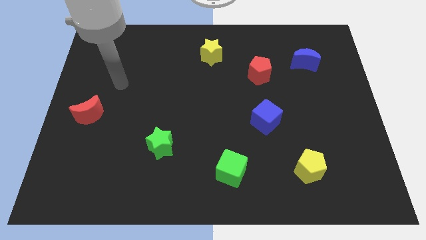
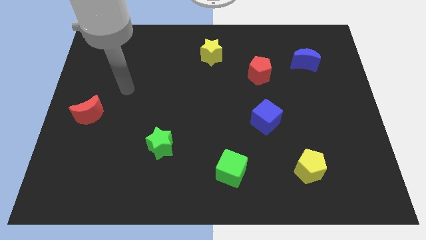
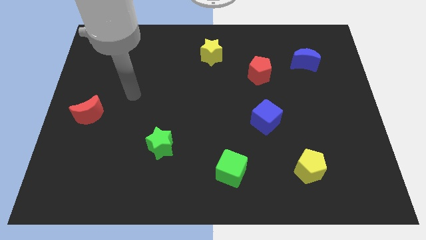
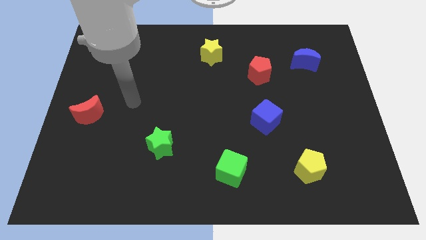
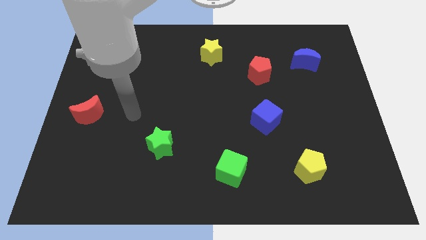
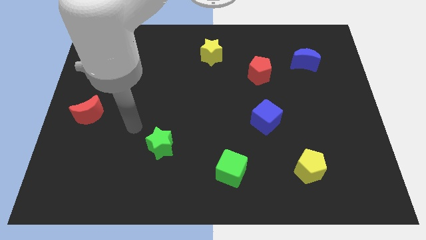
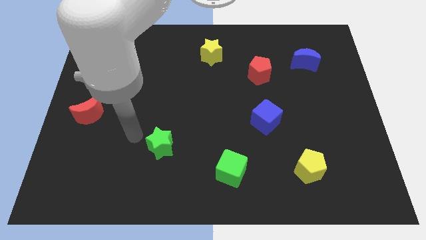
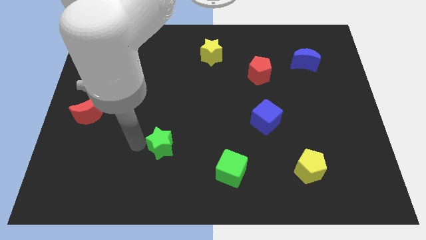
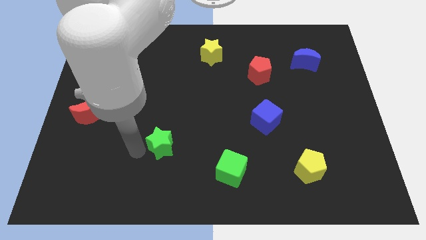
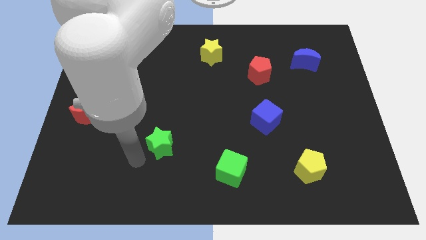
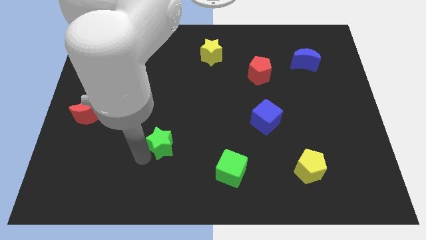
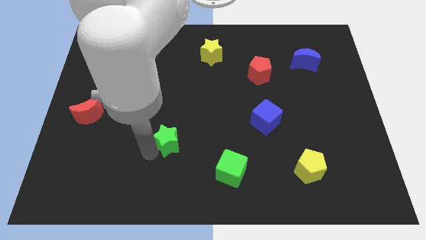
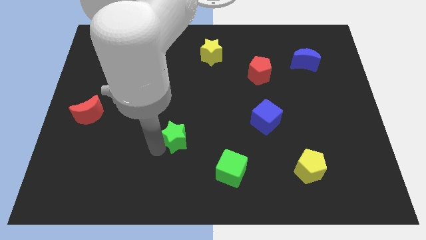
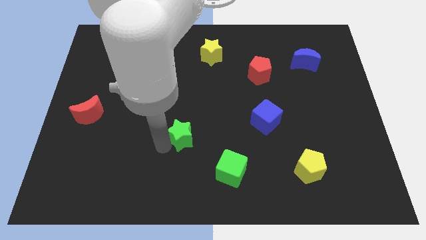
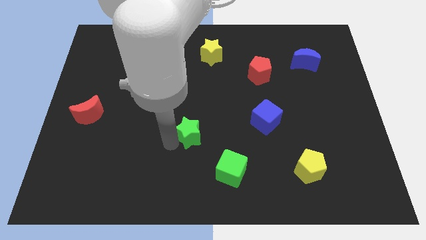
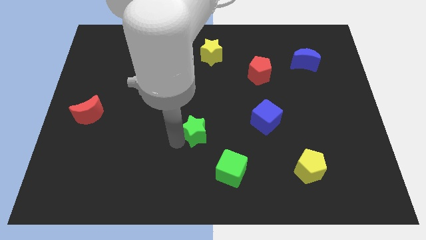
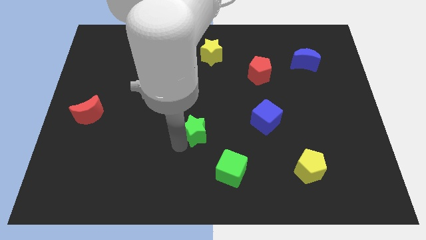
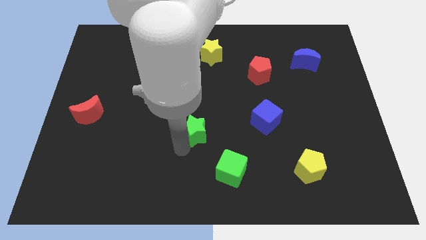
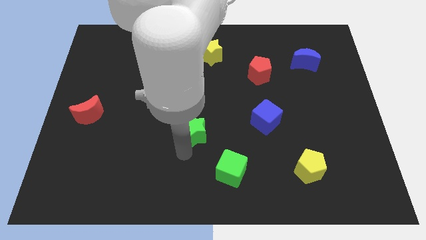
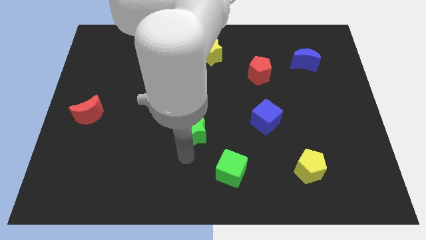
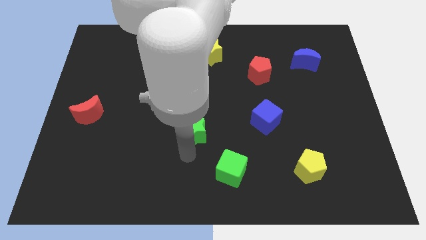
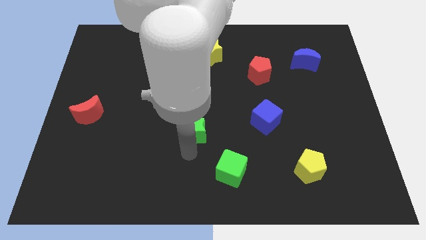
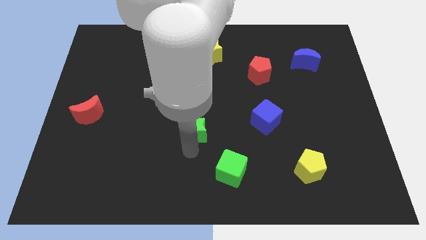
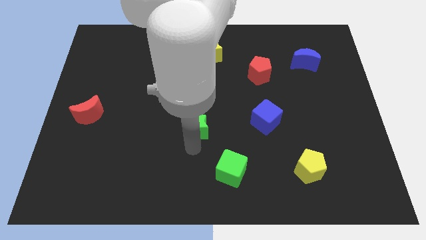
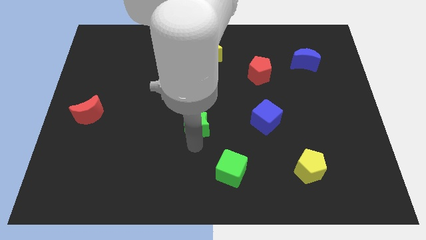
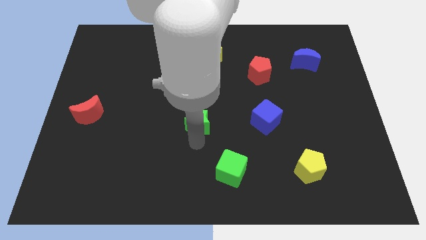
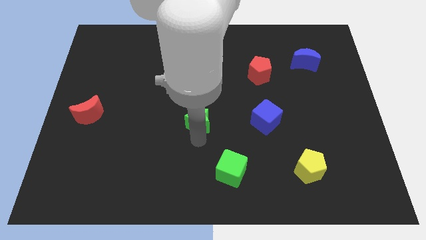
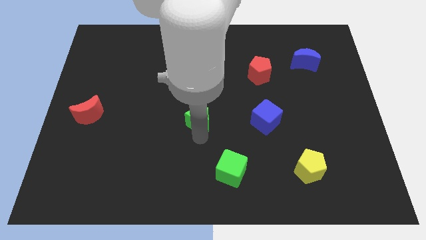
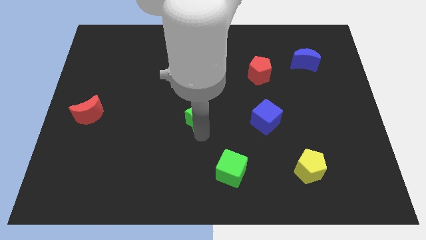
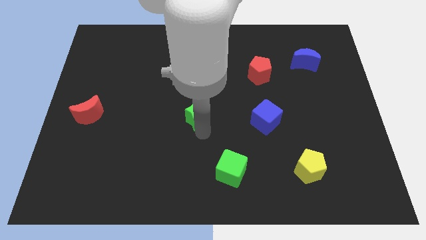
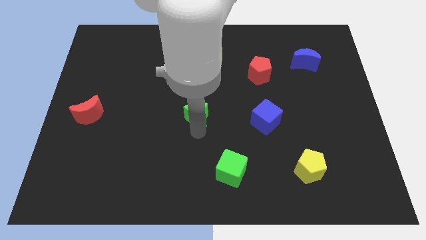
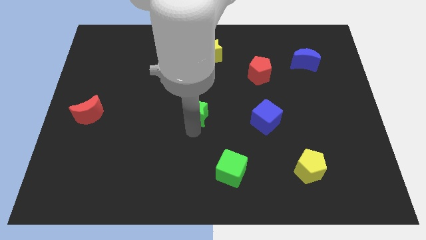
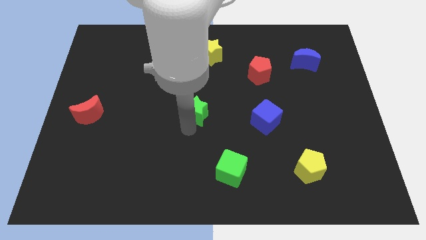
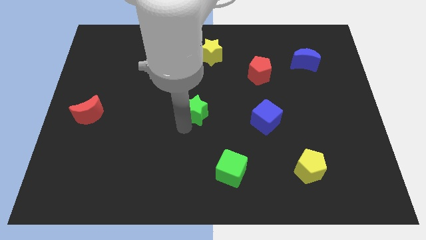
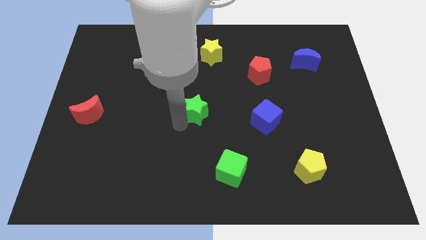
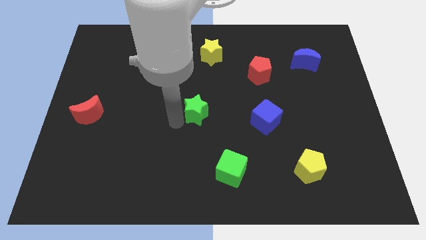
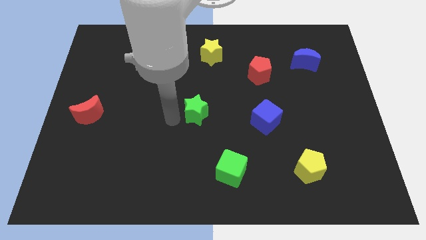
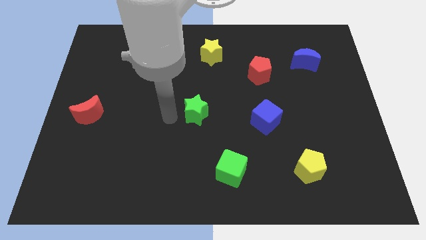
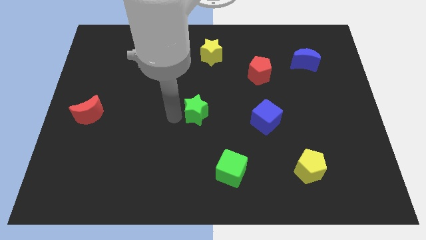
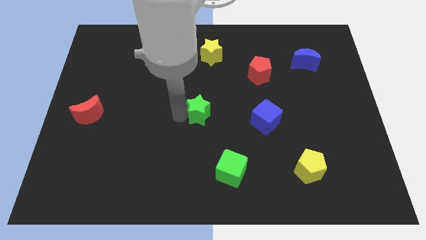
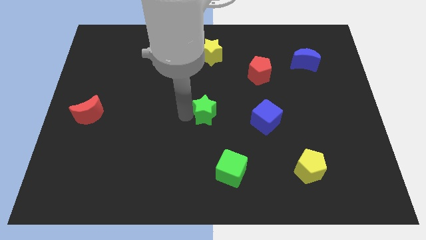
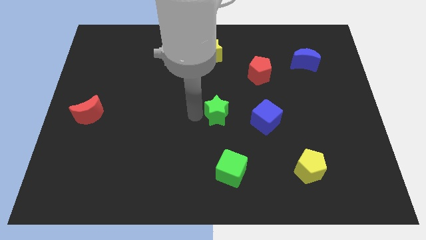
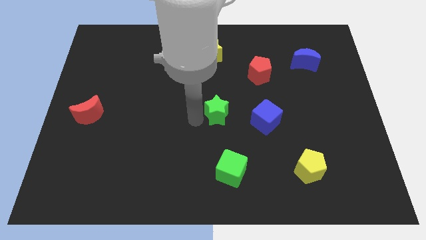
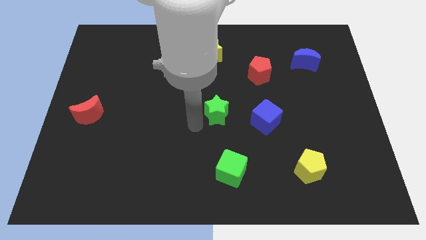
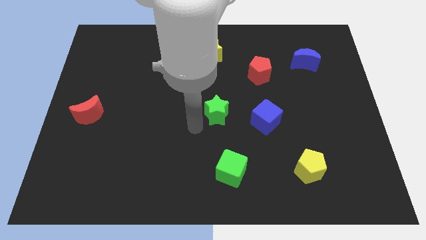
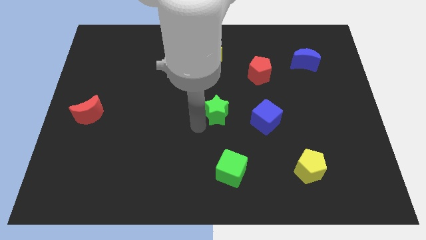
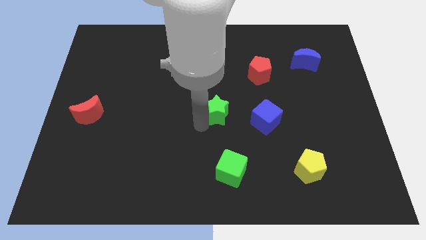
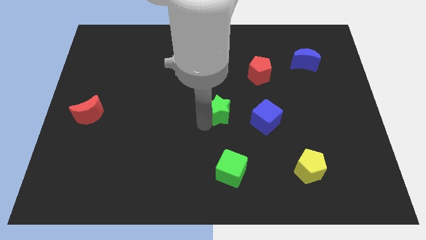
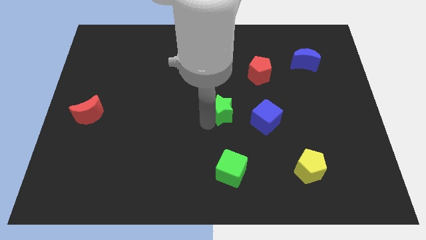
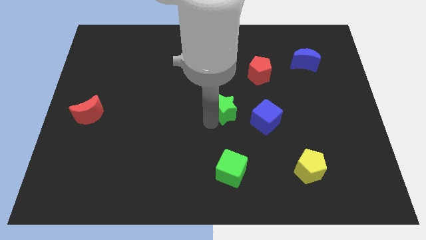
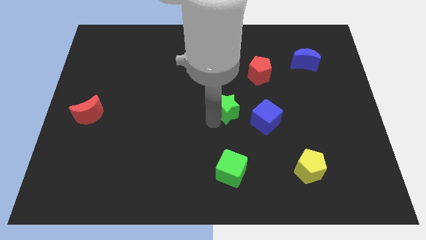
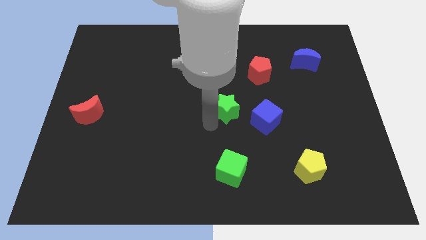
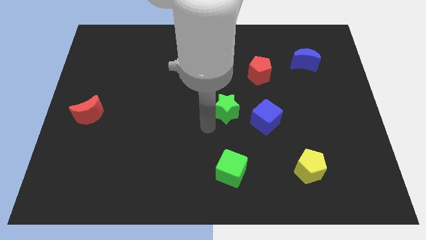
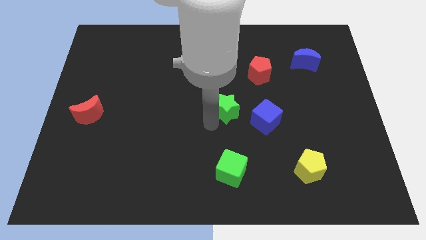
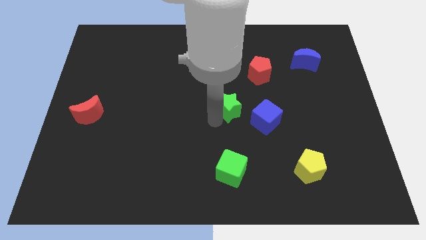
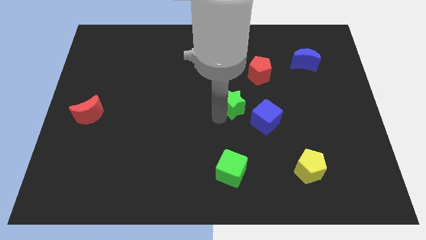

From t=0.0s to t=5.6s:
move the green star to the bottom left side of the red pentagon

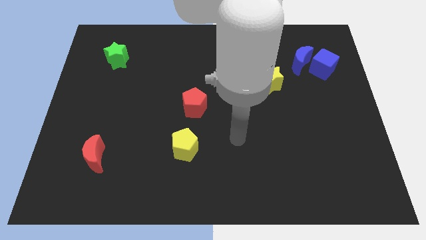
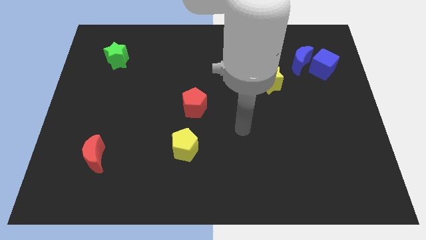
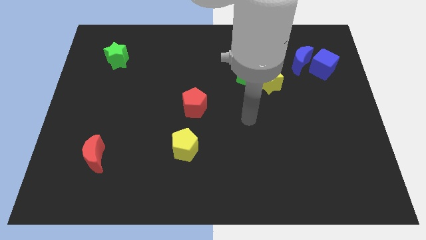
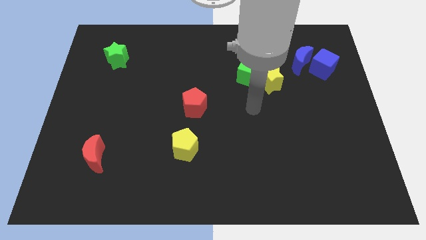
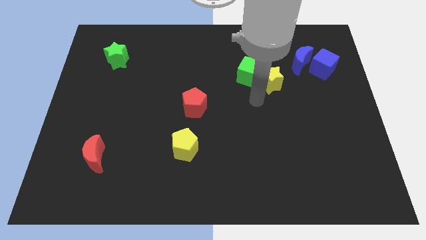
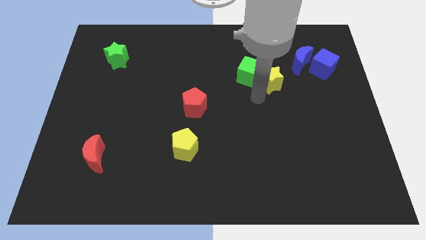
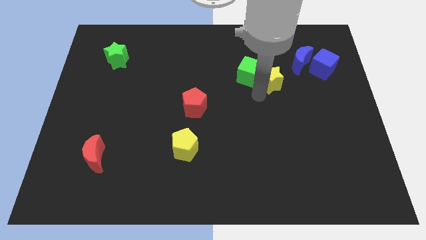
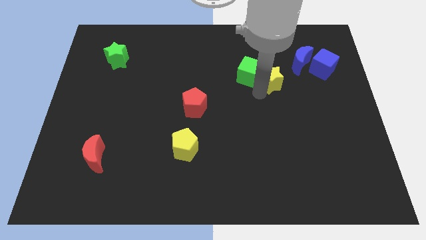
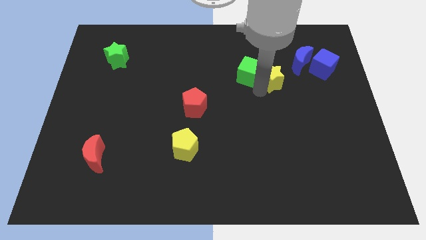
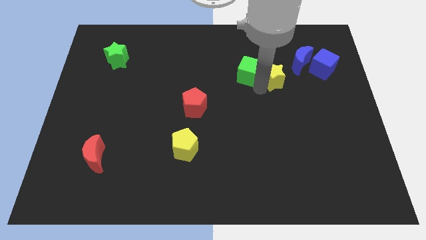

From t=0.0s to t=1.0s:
put the yellow star to the left of the blue cube

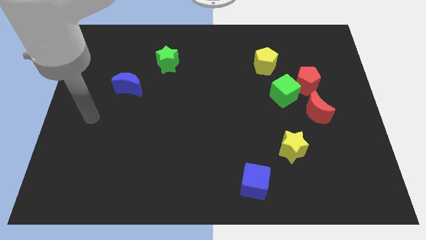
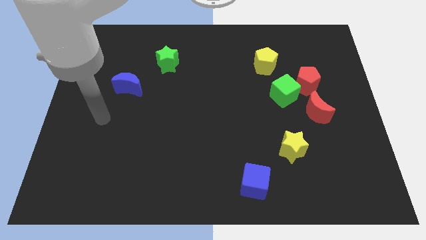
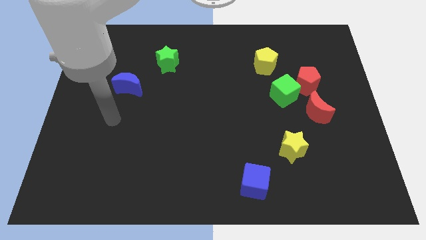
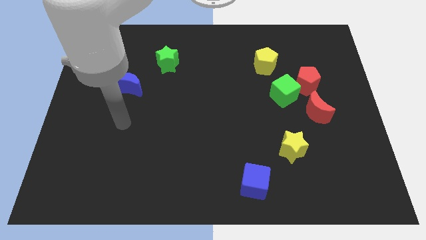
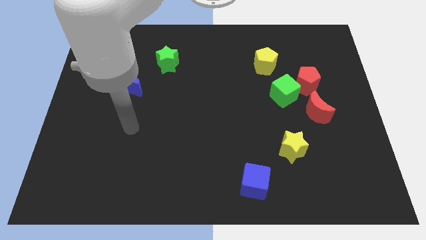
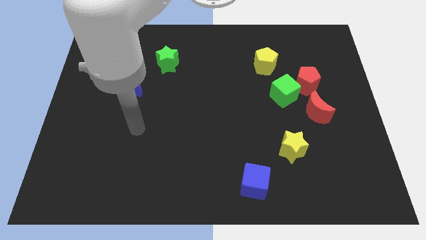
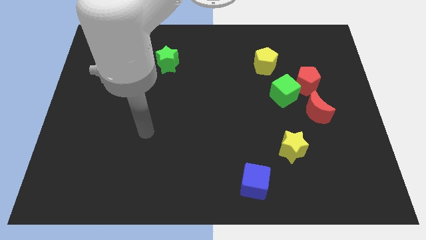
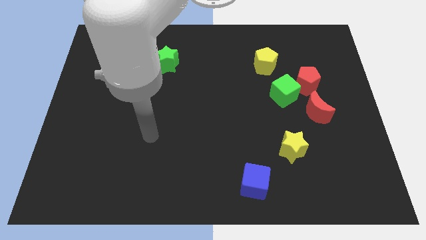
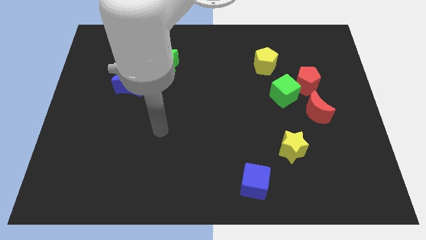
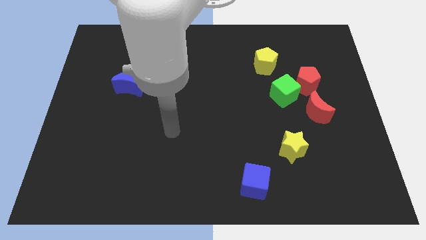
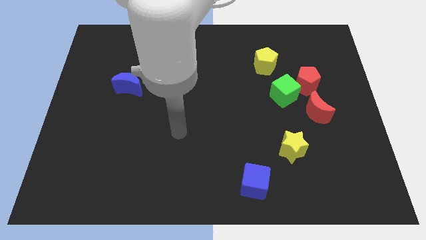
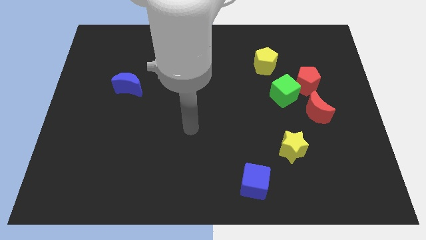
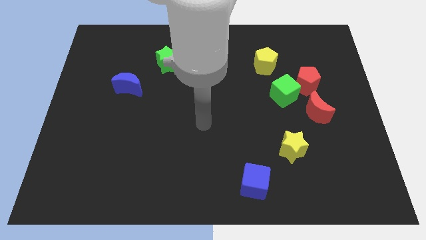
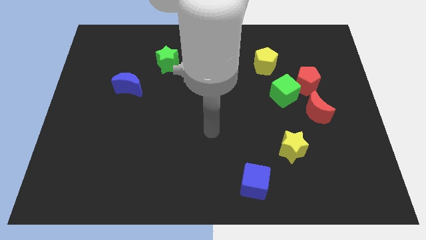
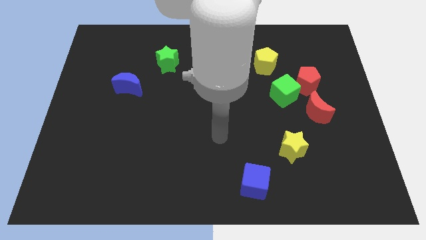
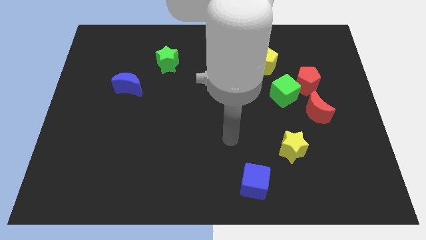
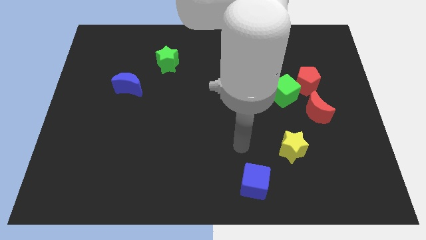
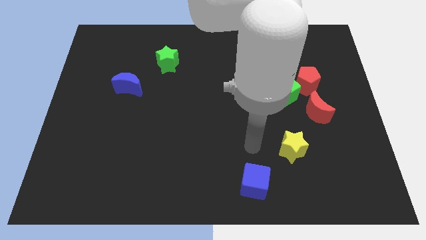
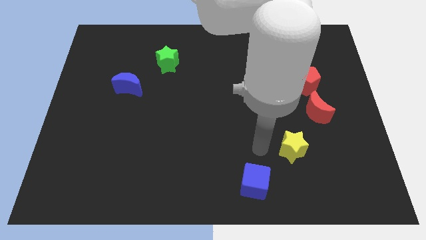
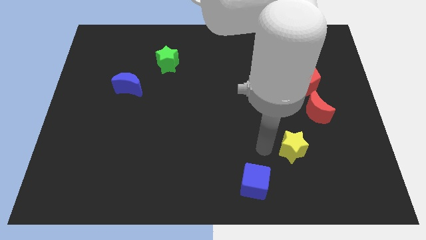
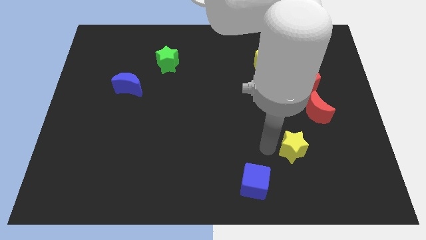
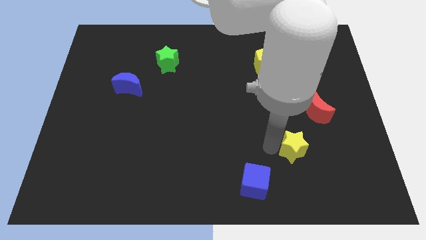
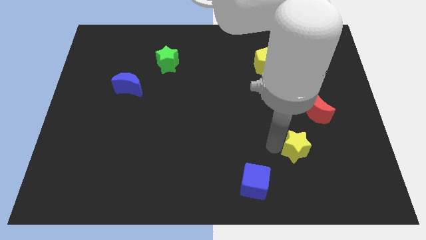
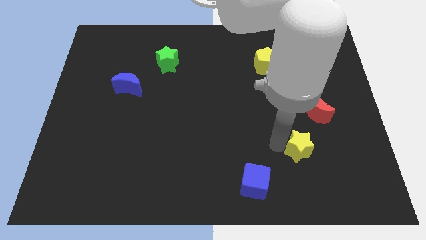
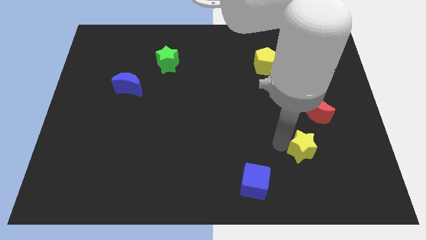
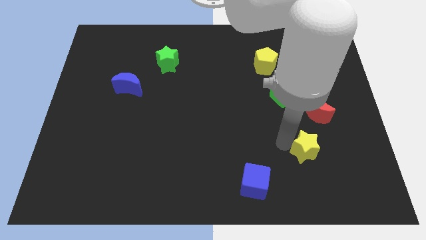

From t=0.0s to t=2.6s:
push the yellow star to the bottom side of the red moon
